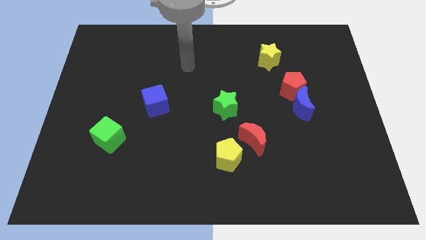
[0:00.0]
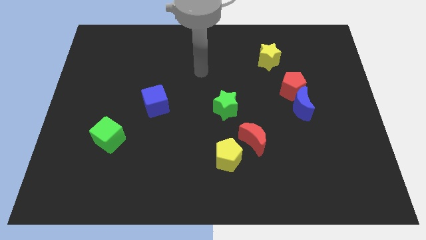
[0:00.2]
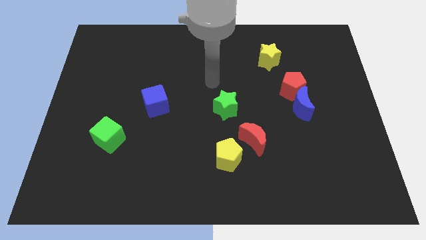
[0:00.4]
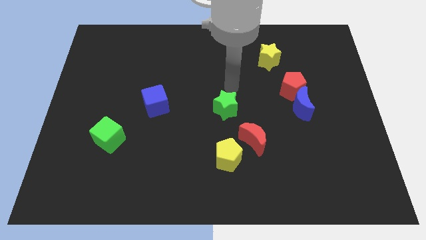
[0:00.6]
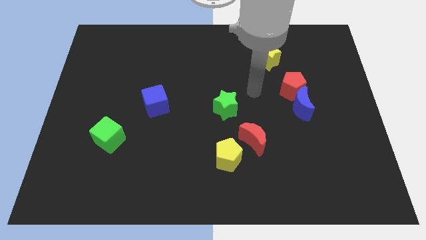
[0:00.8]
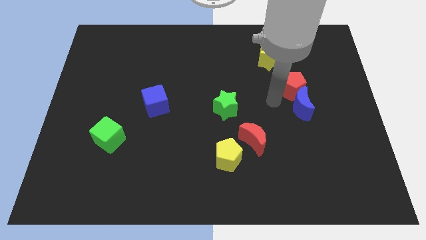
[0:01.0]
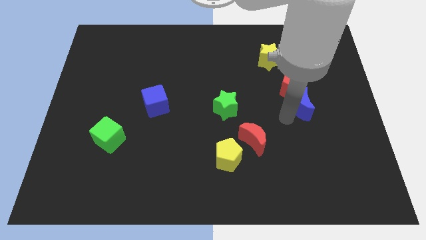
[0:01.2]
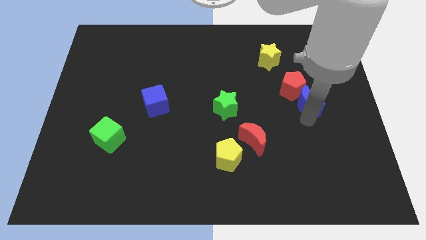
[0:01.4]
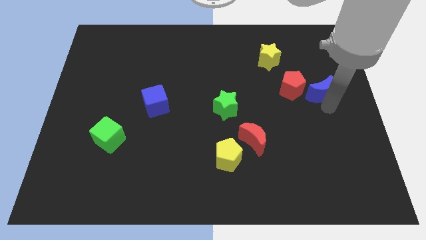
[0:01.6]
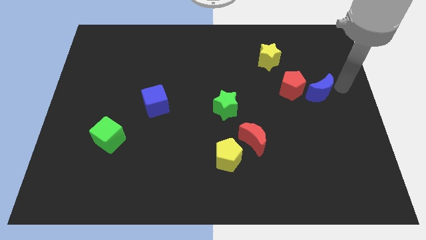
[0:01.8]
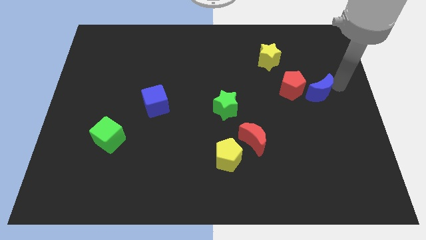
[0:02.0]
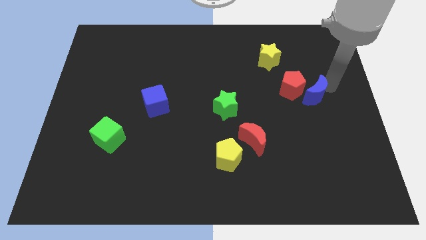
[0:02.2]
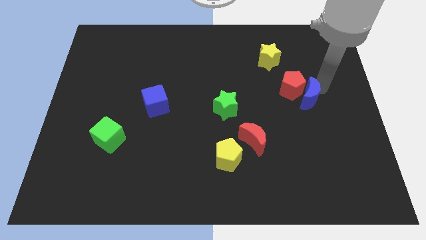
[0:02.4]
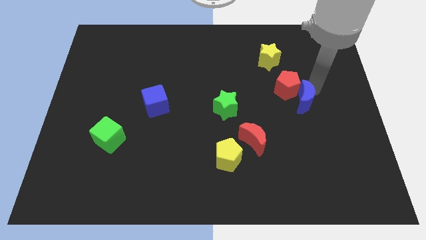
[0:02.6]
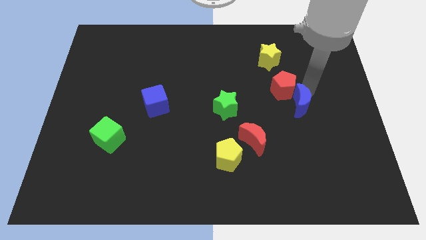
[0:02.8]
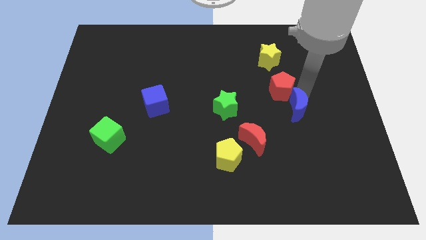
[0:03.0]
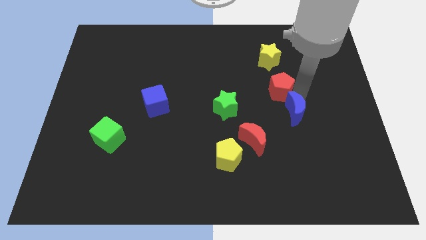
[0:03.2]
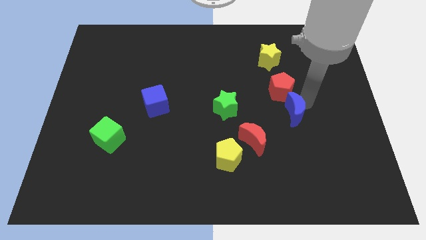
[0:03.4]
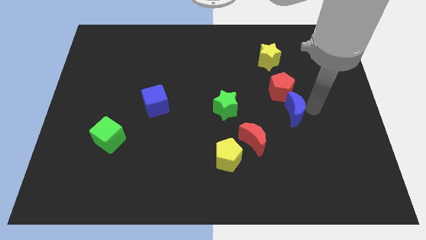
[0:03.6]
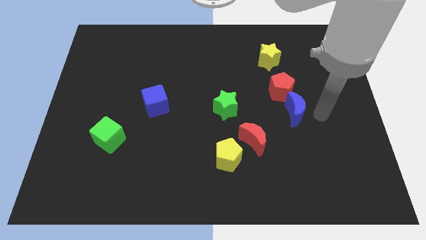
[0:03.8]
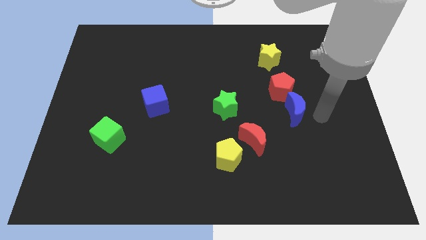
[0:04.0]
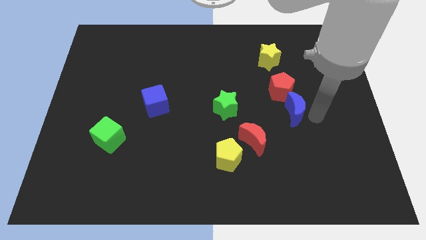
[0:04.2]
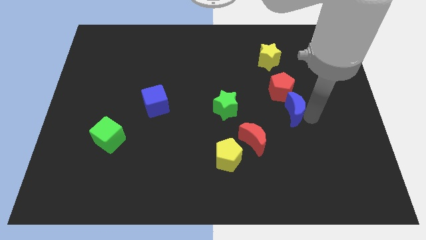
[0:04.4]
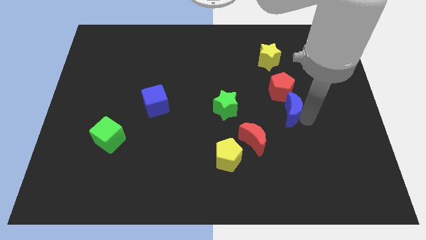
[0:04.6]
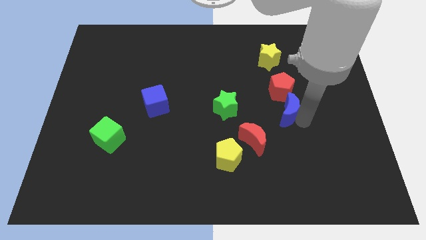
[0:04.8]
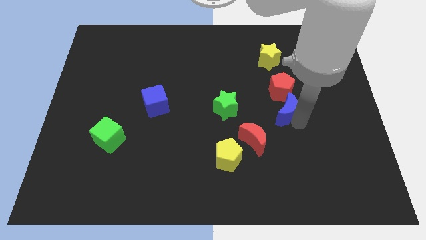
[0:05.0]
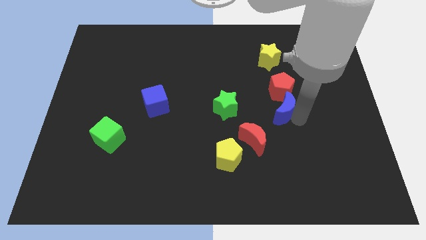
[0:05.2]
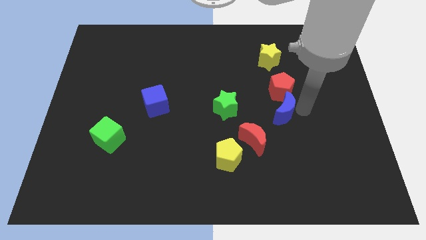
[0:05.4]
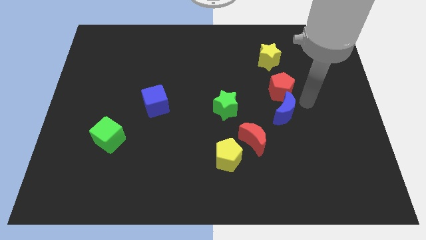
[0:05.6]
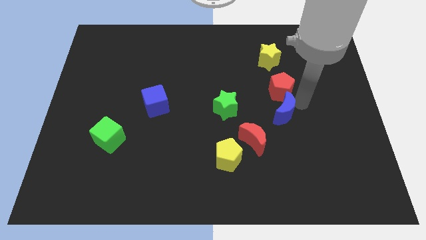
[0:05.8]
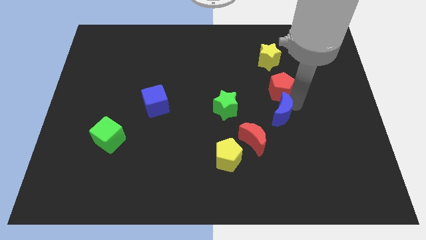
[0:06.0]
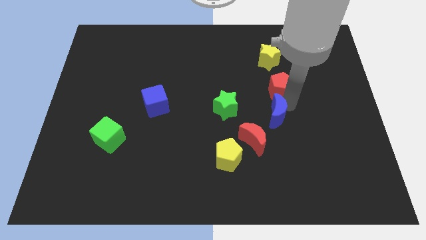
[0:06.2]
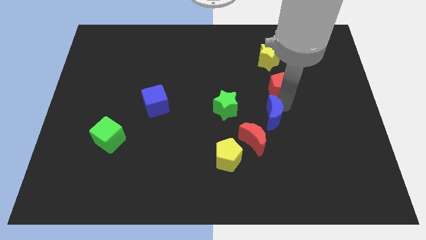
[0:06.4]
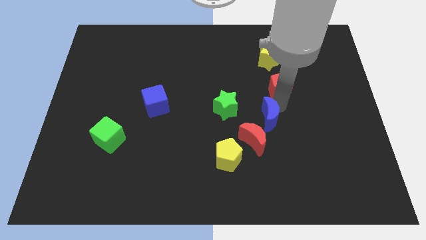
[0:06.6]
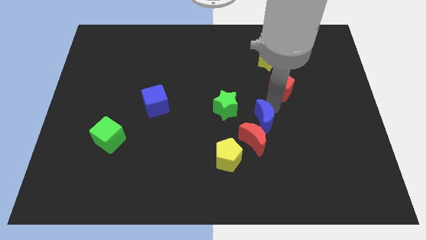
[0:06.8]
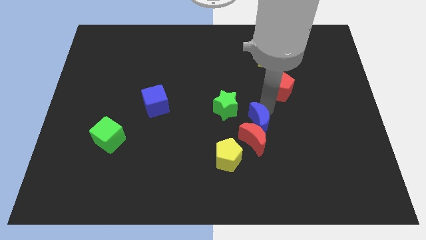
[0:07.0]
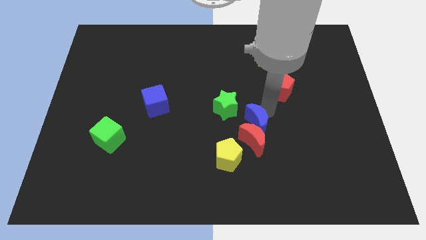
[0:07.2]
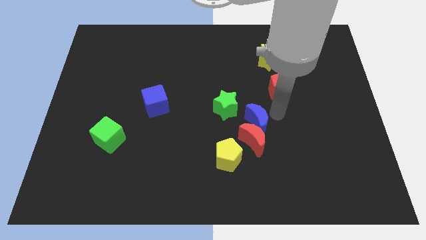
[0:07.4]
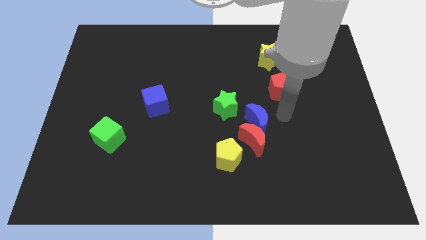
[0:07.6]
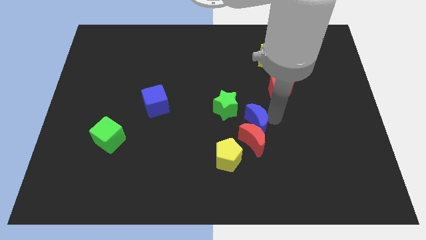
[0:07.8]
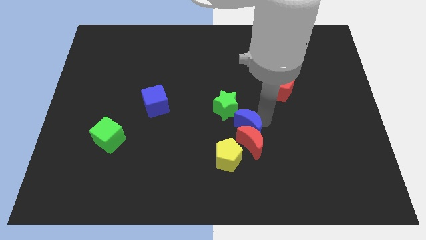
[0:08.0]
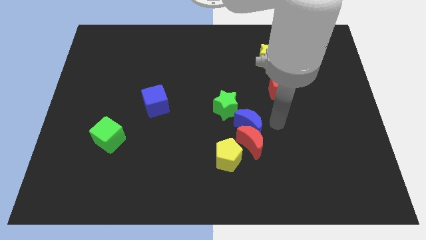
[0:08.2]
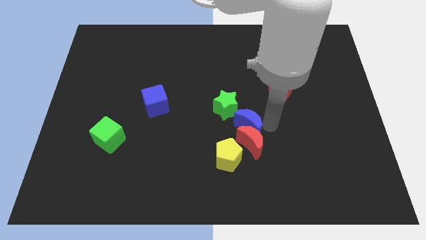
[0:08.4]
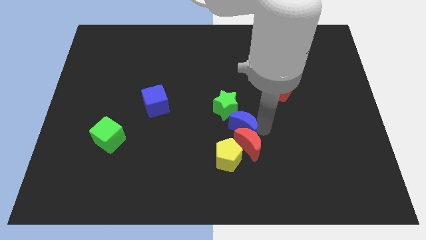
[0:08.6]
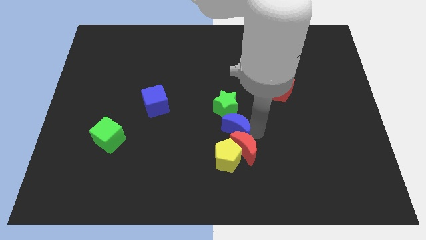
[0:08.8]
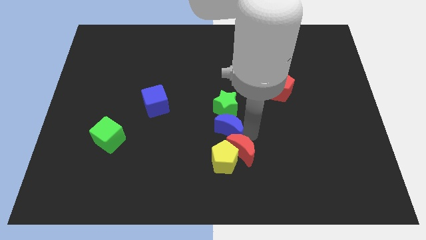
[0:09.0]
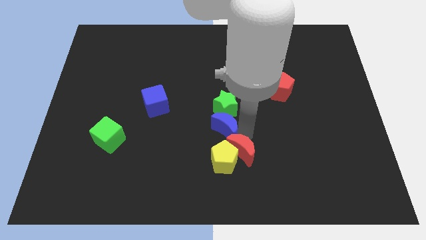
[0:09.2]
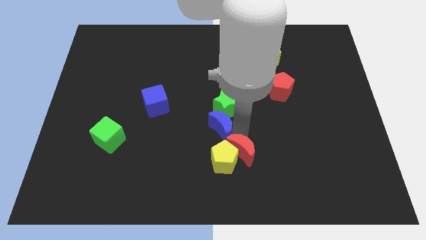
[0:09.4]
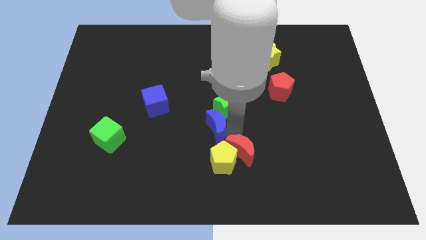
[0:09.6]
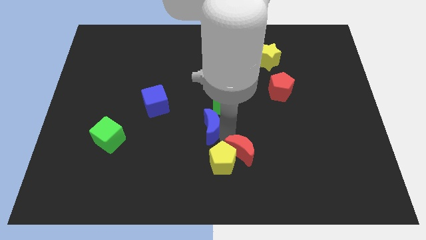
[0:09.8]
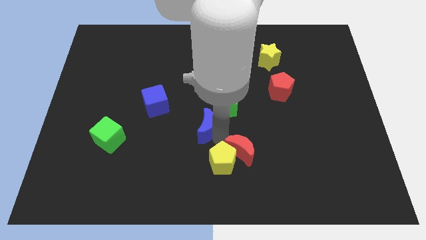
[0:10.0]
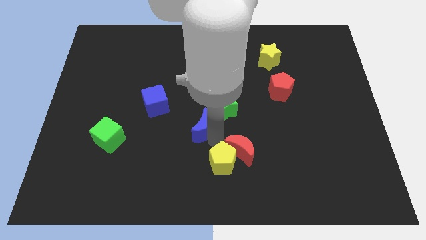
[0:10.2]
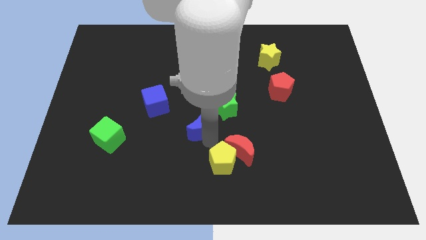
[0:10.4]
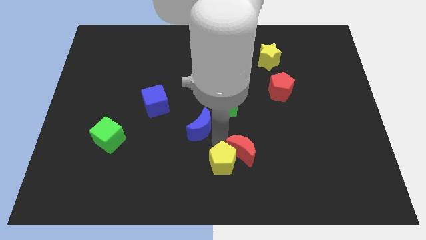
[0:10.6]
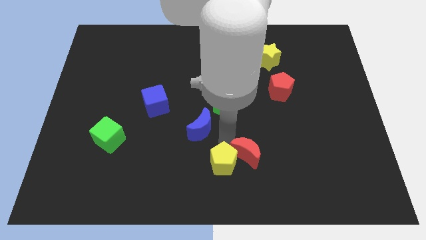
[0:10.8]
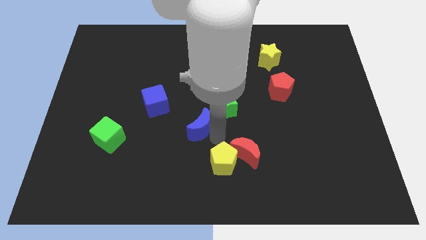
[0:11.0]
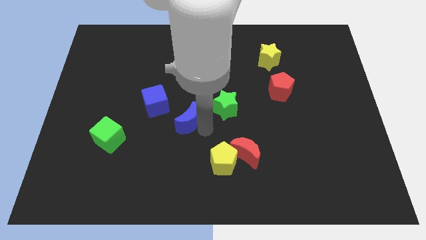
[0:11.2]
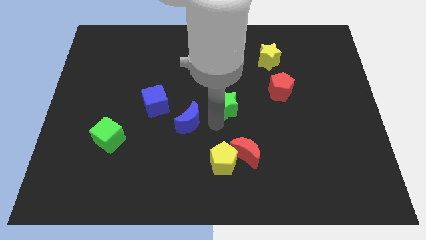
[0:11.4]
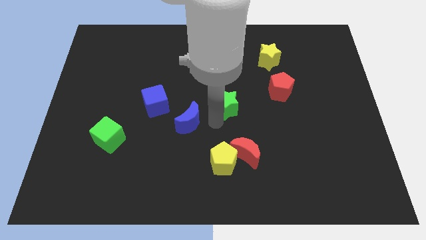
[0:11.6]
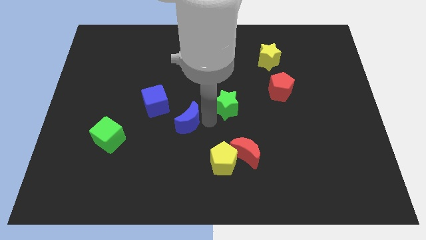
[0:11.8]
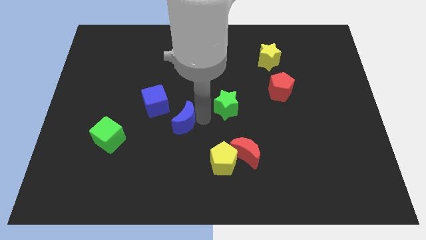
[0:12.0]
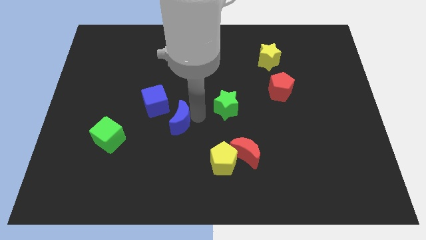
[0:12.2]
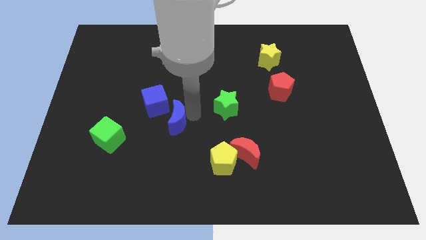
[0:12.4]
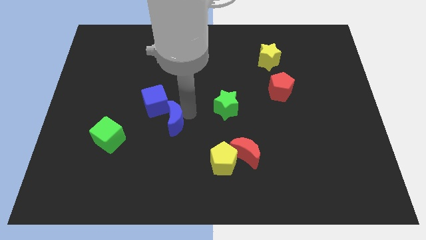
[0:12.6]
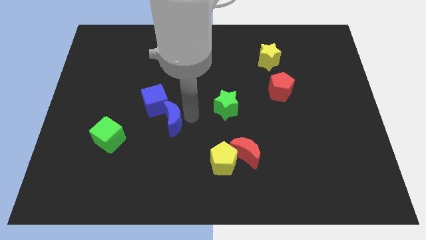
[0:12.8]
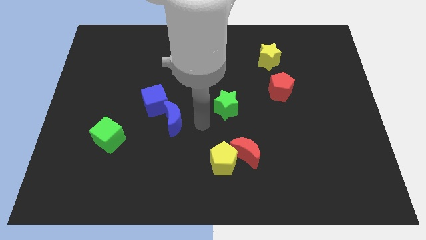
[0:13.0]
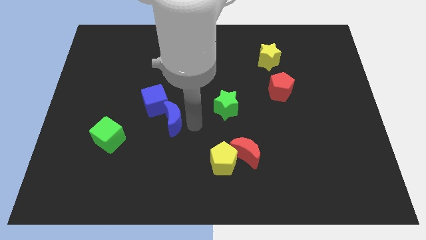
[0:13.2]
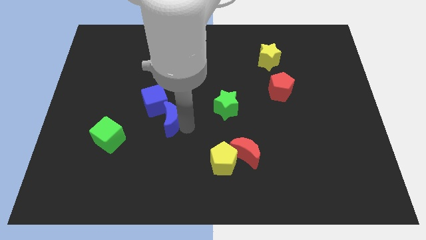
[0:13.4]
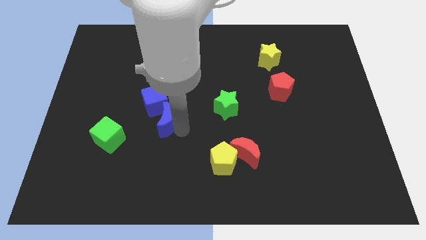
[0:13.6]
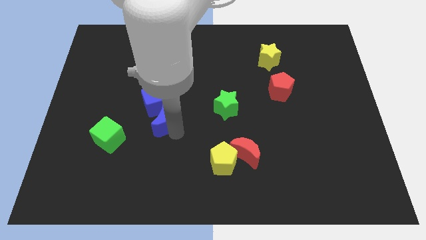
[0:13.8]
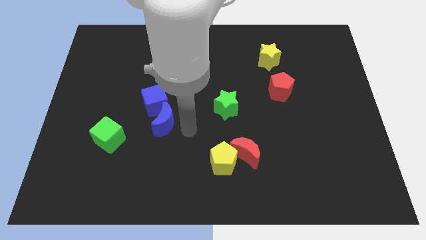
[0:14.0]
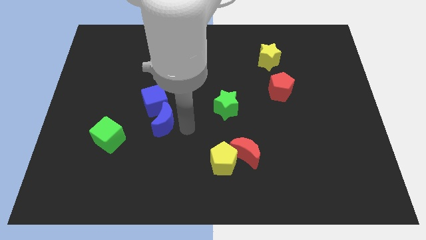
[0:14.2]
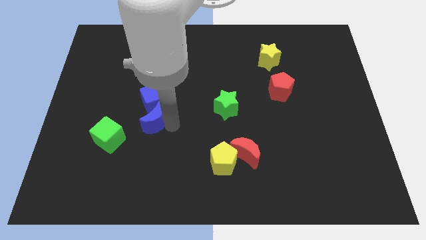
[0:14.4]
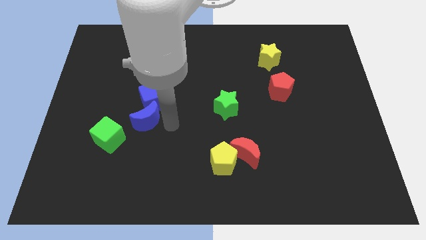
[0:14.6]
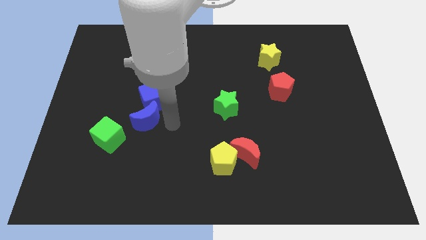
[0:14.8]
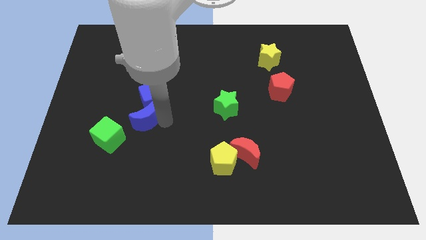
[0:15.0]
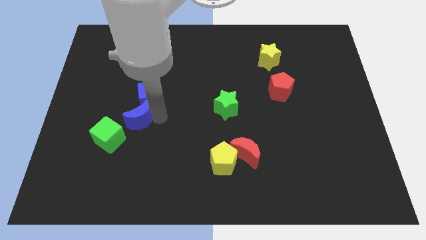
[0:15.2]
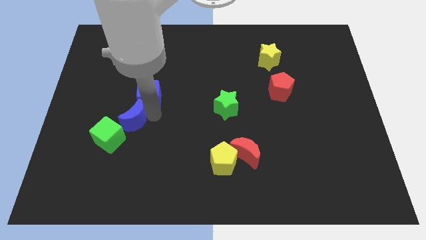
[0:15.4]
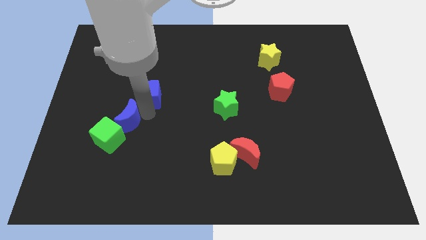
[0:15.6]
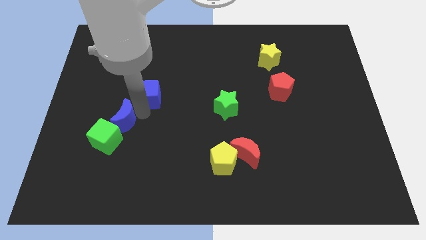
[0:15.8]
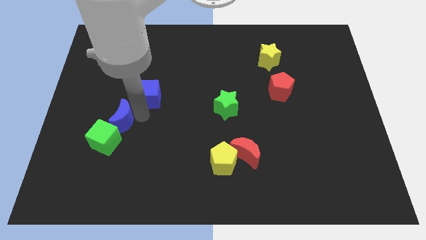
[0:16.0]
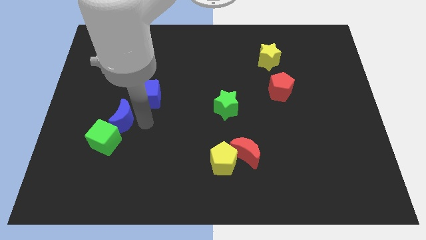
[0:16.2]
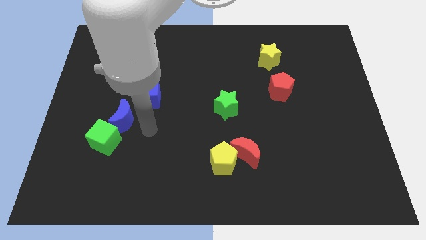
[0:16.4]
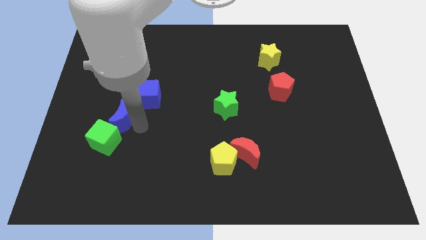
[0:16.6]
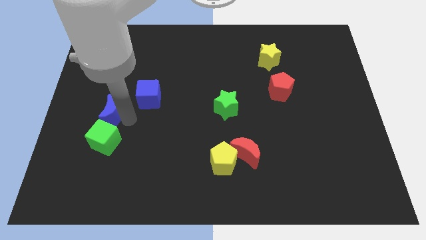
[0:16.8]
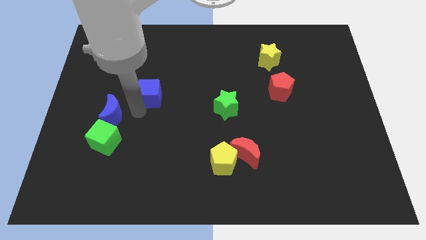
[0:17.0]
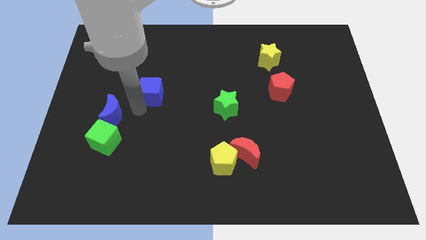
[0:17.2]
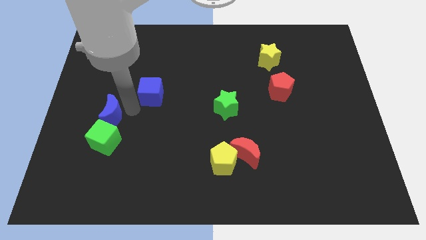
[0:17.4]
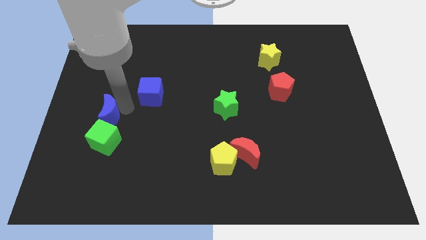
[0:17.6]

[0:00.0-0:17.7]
move the blue moon to the top left side of the green cube
